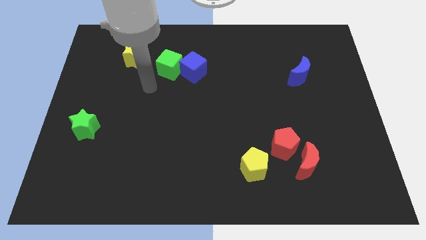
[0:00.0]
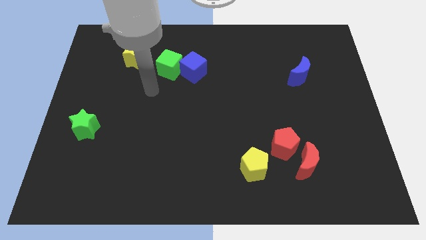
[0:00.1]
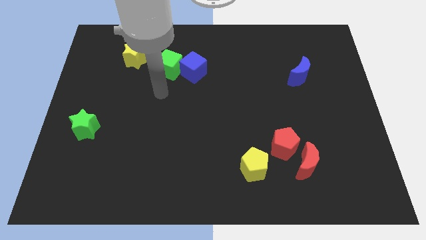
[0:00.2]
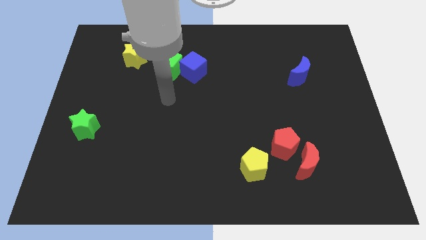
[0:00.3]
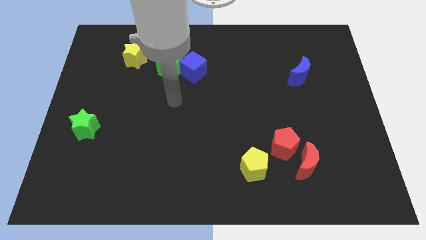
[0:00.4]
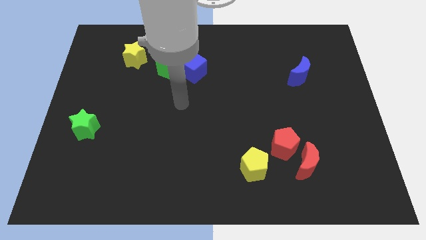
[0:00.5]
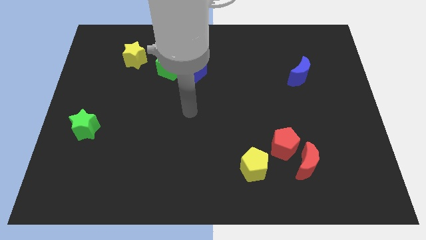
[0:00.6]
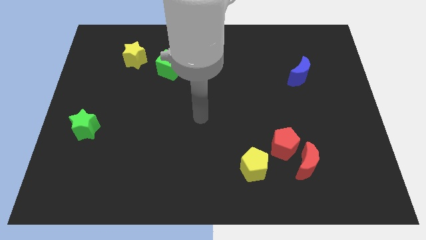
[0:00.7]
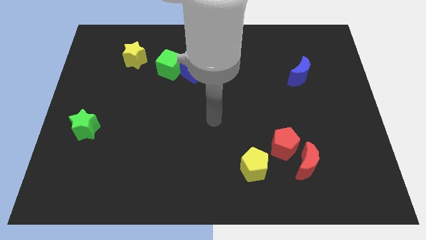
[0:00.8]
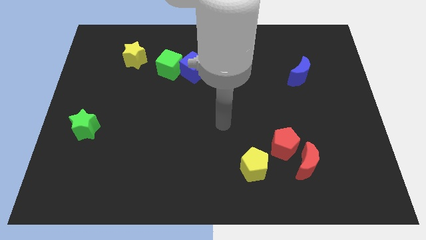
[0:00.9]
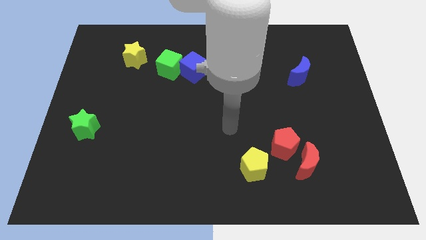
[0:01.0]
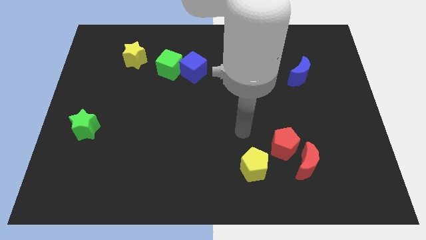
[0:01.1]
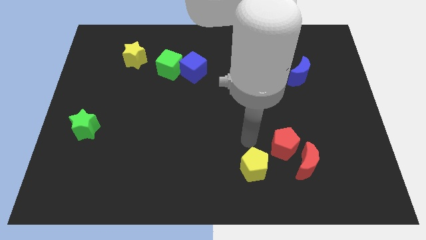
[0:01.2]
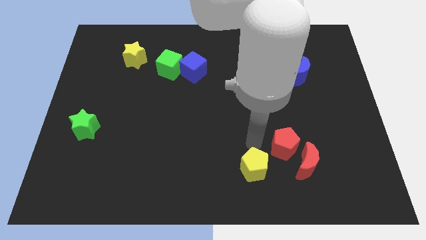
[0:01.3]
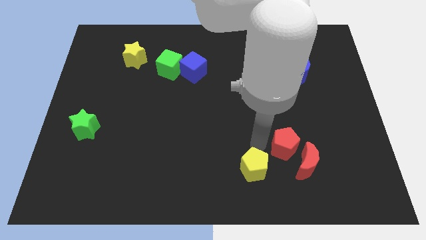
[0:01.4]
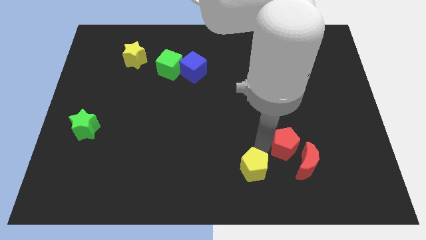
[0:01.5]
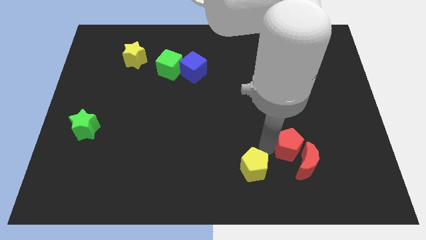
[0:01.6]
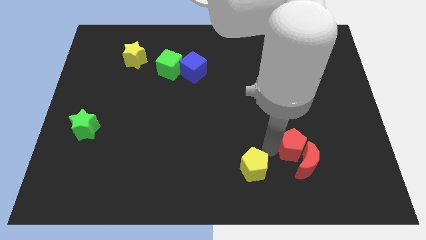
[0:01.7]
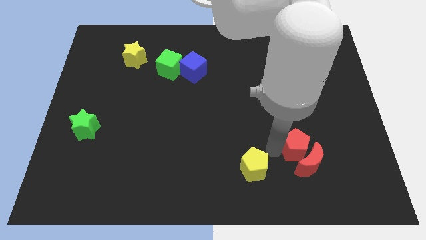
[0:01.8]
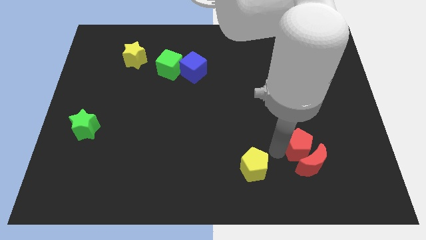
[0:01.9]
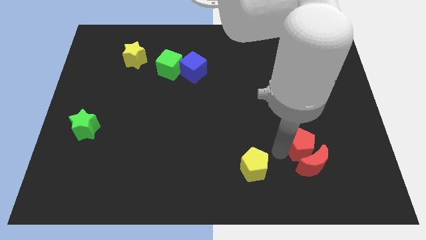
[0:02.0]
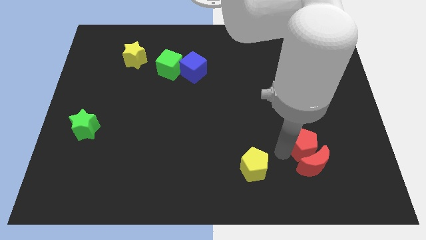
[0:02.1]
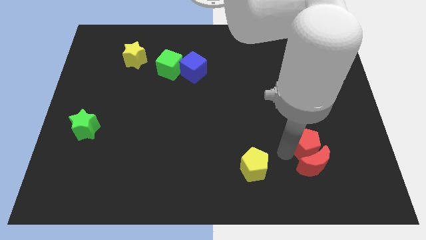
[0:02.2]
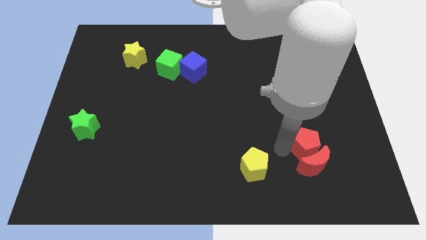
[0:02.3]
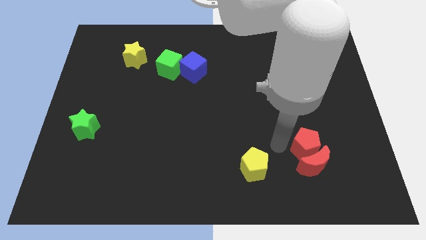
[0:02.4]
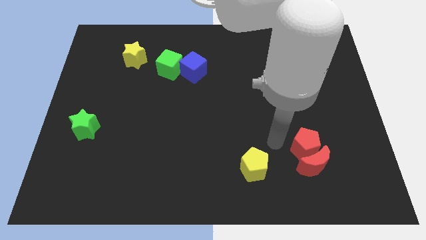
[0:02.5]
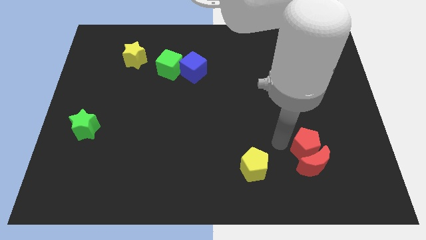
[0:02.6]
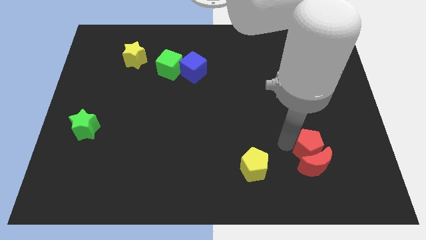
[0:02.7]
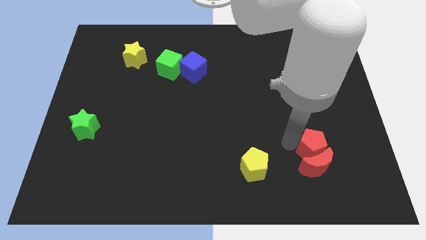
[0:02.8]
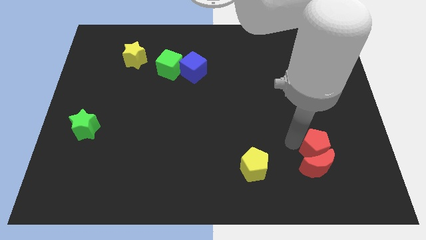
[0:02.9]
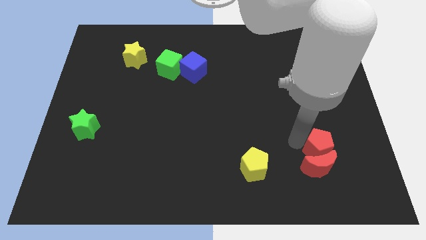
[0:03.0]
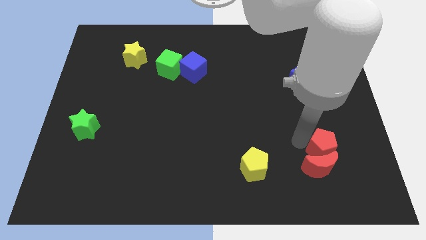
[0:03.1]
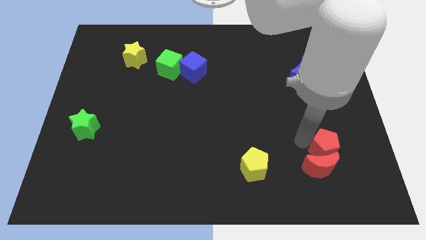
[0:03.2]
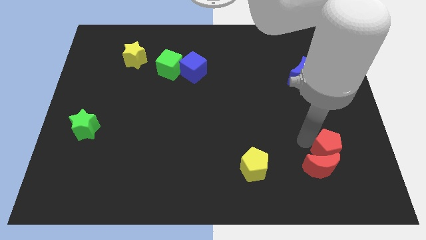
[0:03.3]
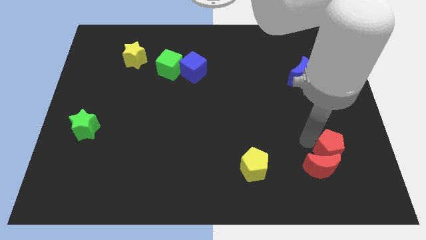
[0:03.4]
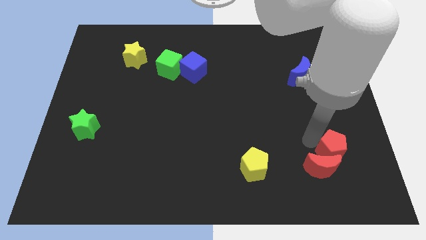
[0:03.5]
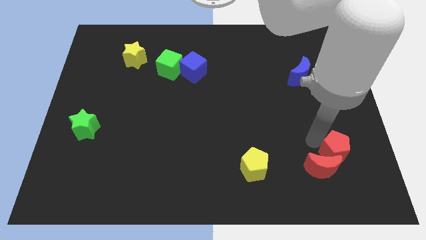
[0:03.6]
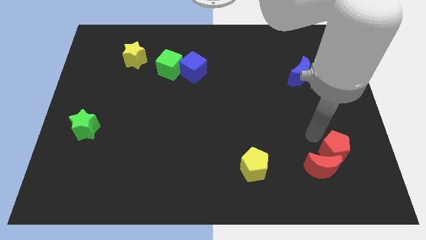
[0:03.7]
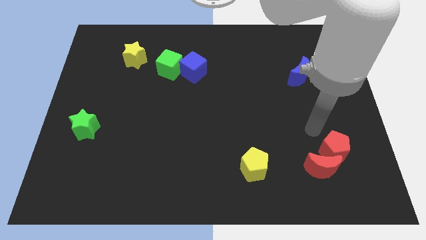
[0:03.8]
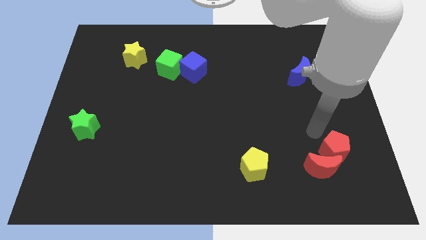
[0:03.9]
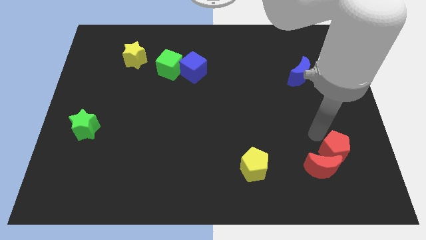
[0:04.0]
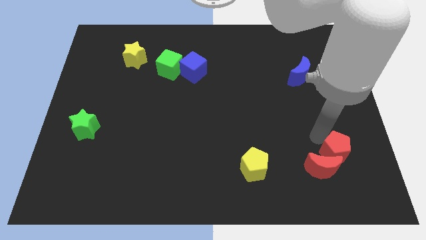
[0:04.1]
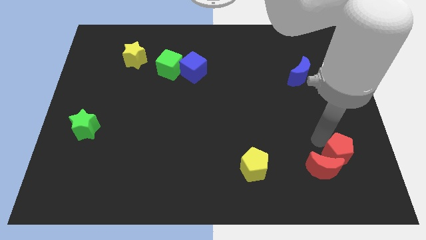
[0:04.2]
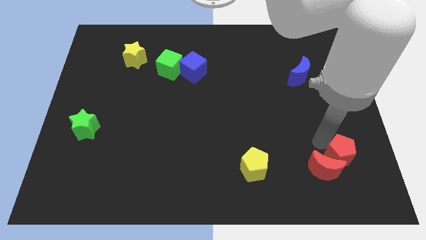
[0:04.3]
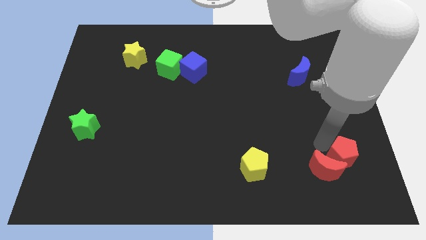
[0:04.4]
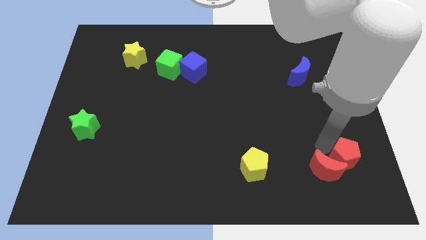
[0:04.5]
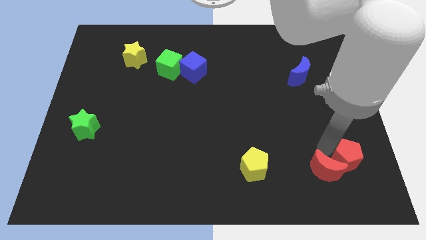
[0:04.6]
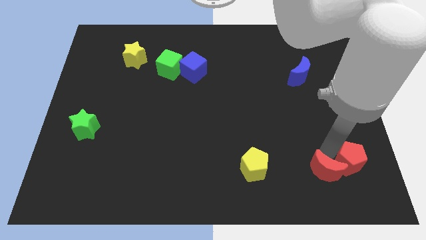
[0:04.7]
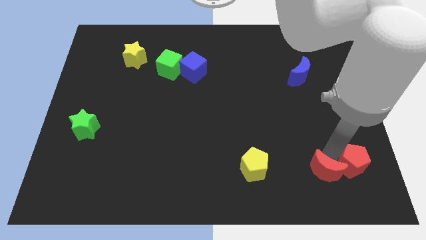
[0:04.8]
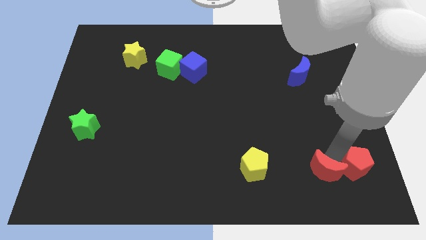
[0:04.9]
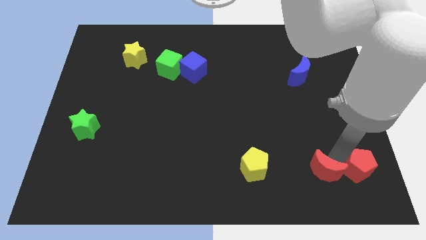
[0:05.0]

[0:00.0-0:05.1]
move the red pentagon to the bottom right

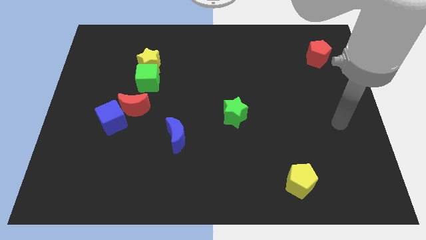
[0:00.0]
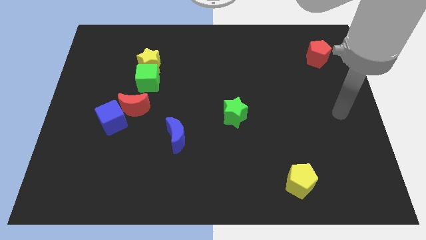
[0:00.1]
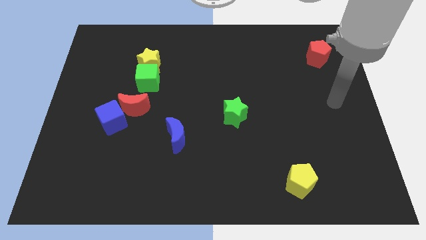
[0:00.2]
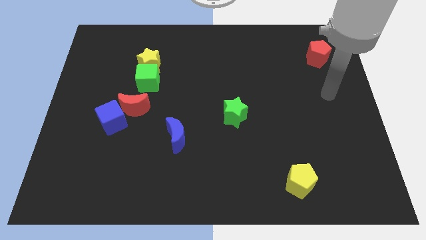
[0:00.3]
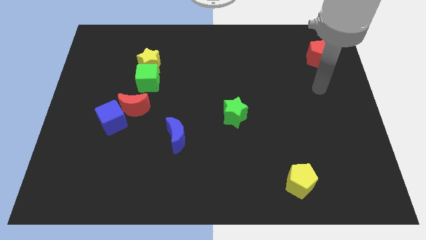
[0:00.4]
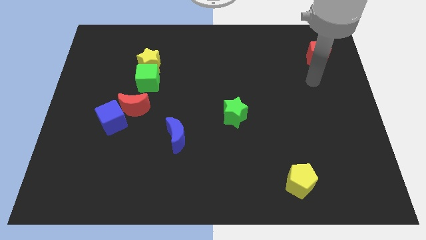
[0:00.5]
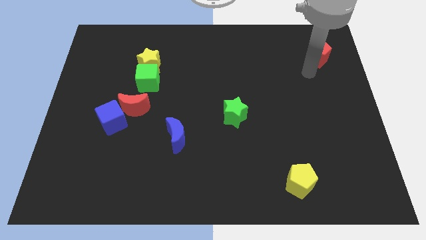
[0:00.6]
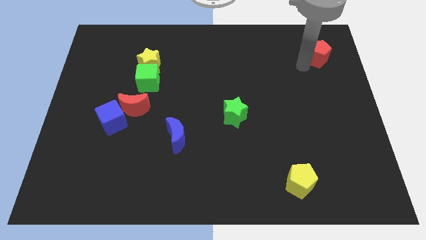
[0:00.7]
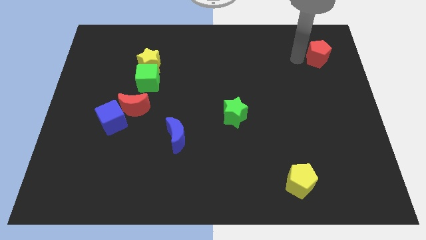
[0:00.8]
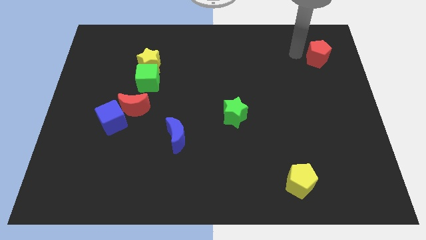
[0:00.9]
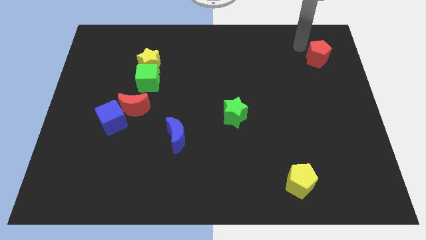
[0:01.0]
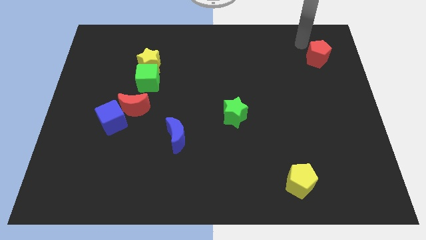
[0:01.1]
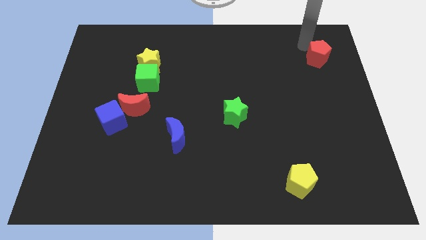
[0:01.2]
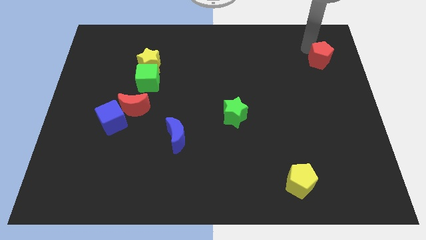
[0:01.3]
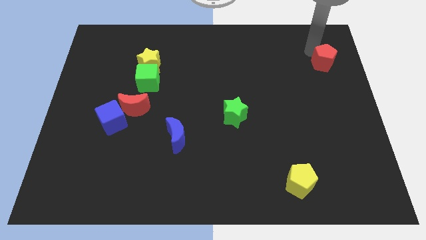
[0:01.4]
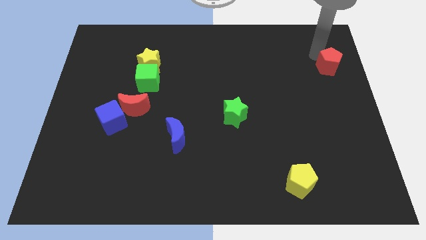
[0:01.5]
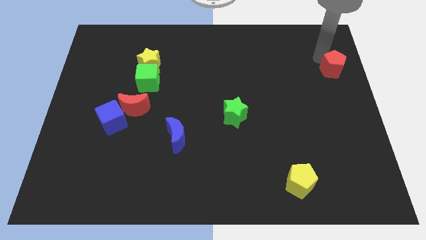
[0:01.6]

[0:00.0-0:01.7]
put the red pentagon to the center right
